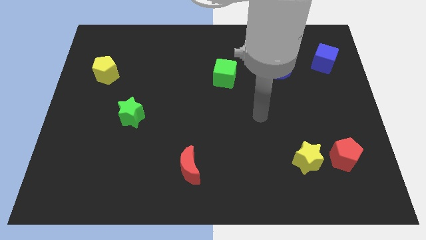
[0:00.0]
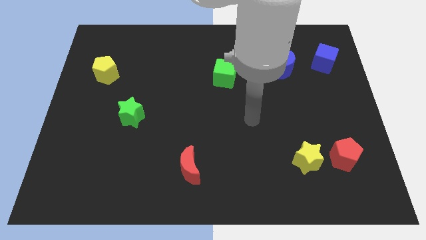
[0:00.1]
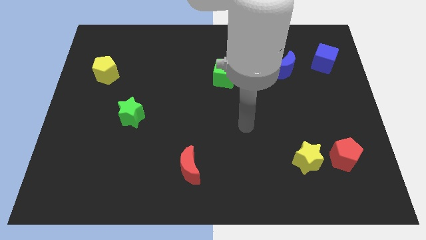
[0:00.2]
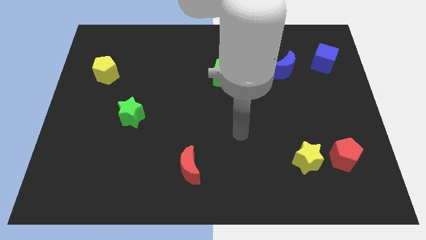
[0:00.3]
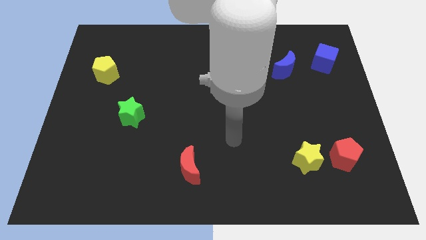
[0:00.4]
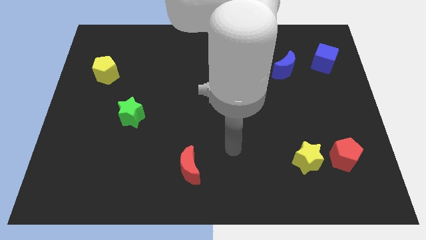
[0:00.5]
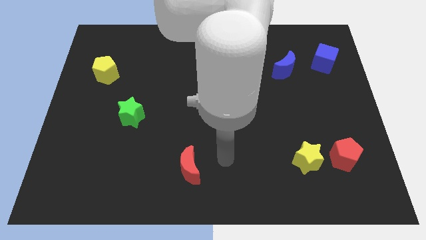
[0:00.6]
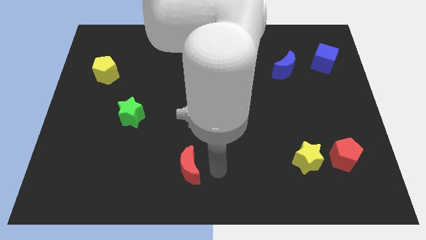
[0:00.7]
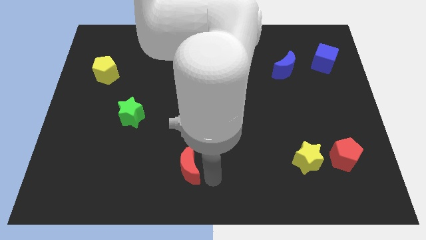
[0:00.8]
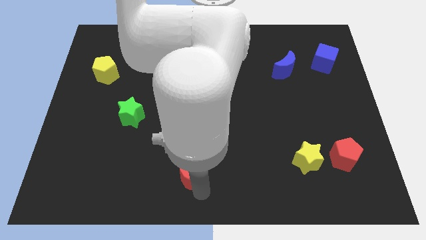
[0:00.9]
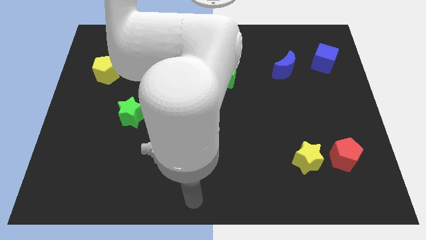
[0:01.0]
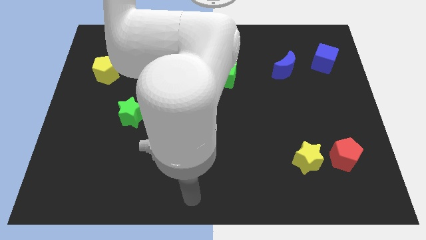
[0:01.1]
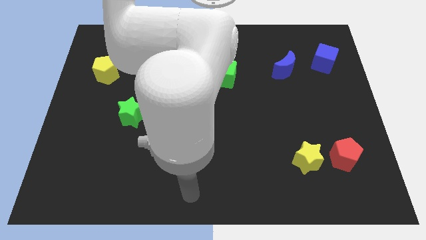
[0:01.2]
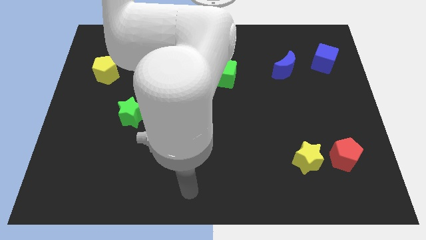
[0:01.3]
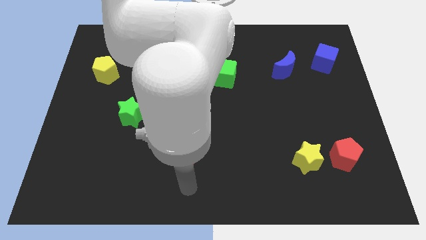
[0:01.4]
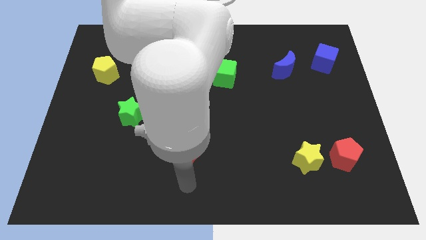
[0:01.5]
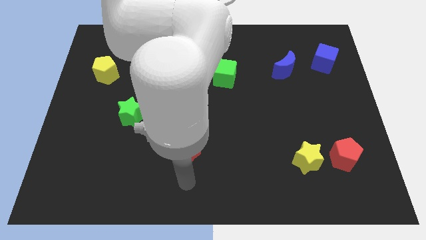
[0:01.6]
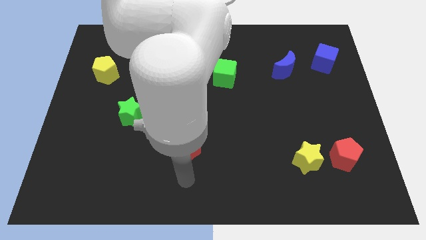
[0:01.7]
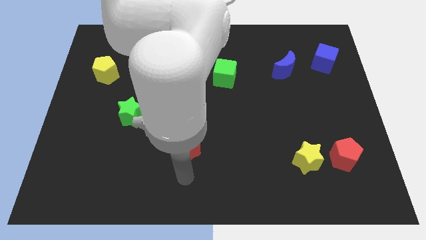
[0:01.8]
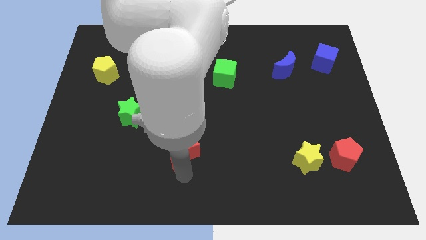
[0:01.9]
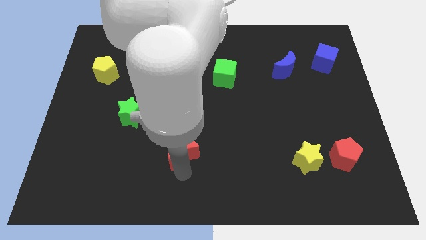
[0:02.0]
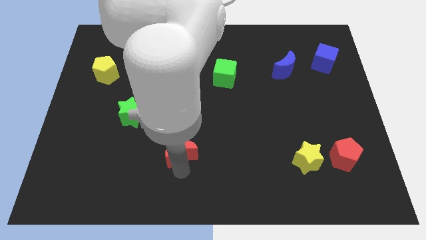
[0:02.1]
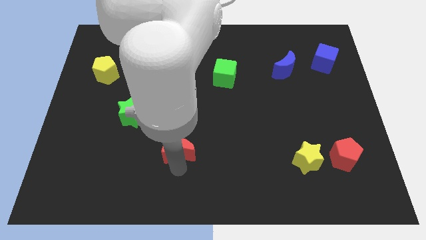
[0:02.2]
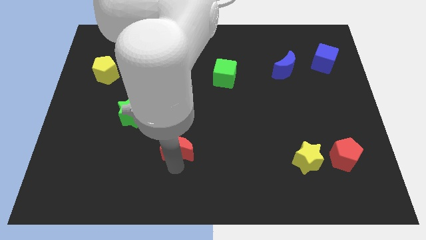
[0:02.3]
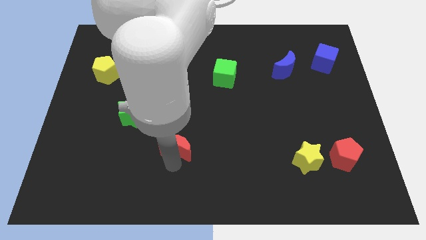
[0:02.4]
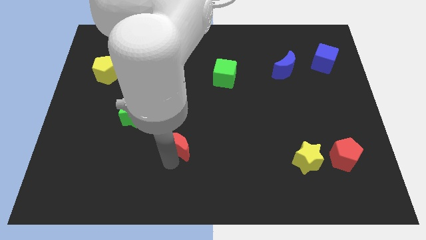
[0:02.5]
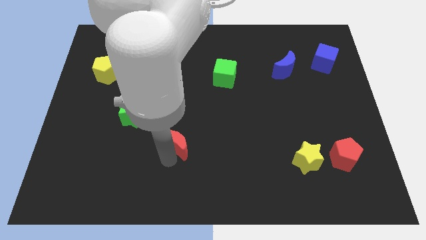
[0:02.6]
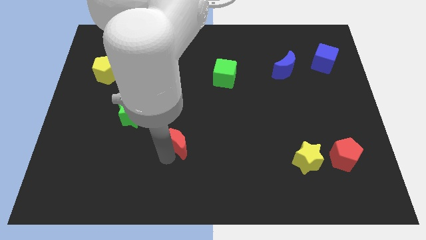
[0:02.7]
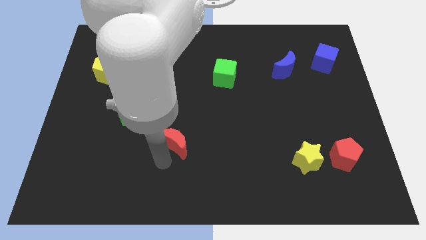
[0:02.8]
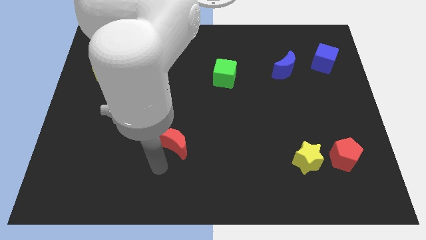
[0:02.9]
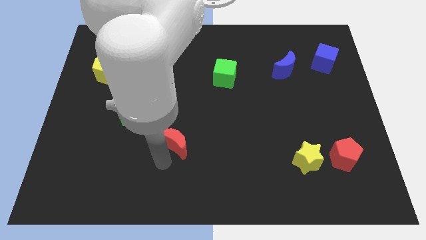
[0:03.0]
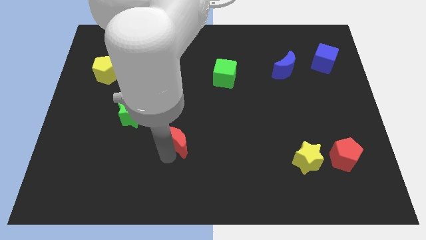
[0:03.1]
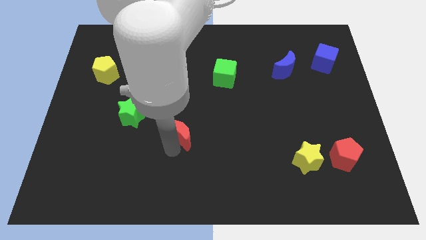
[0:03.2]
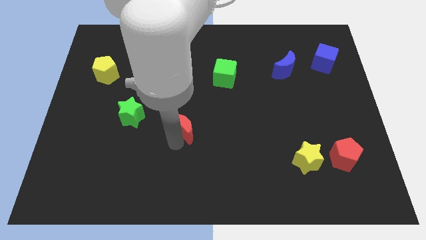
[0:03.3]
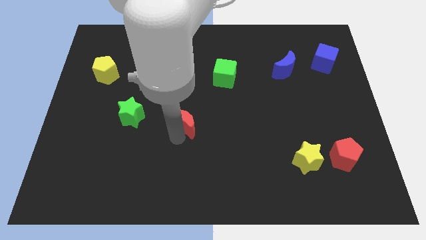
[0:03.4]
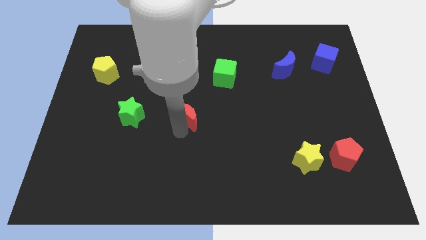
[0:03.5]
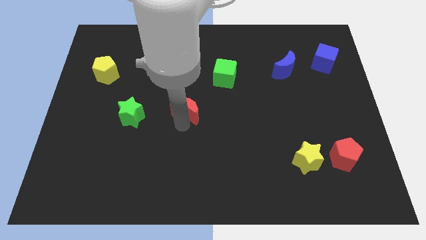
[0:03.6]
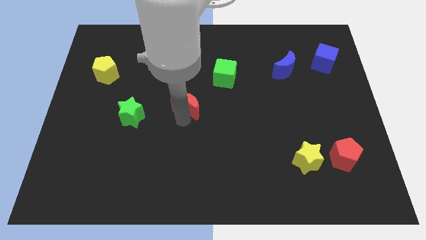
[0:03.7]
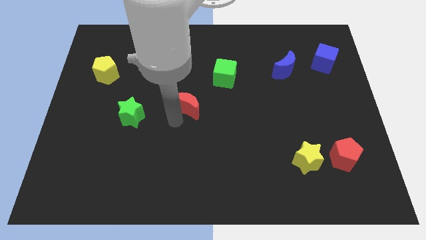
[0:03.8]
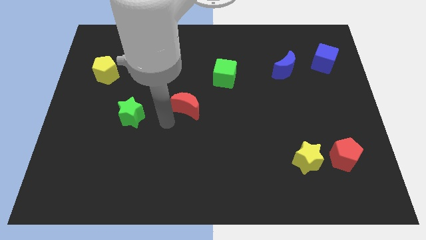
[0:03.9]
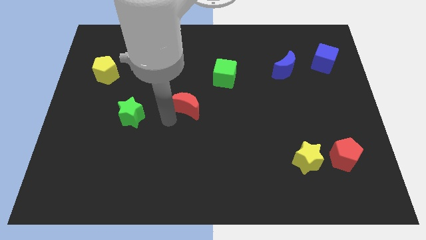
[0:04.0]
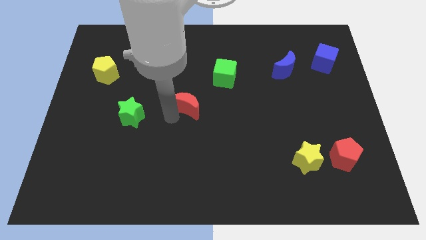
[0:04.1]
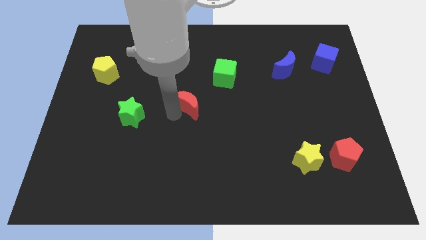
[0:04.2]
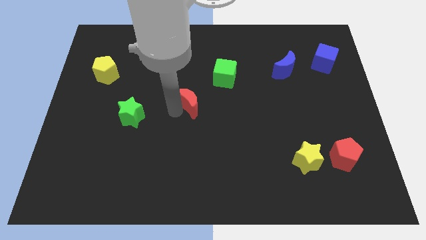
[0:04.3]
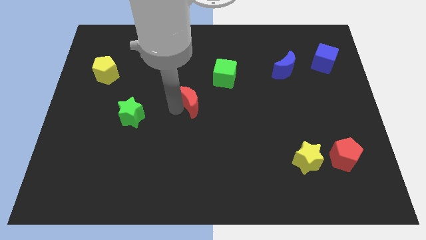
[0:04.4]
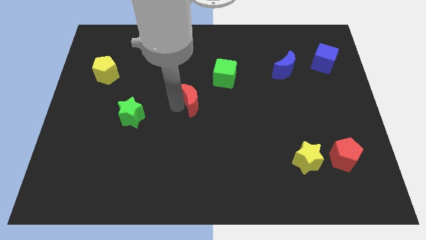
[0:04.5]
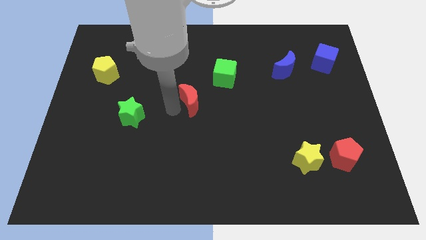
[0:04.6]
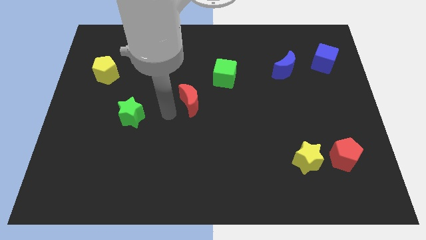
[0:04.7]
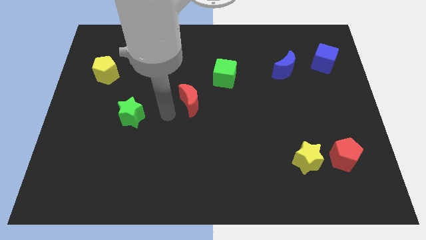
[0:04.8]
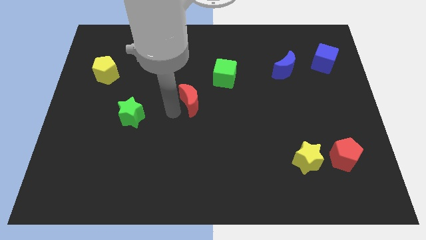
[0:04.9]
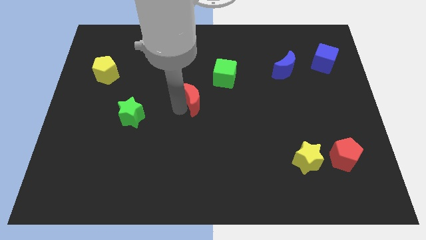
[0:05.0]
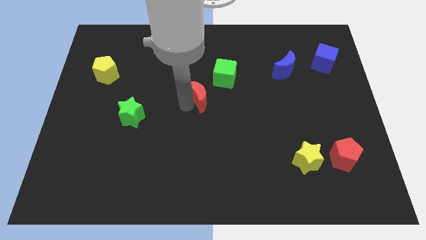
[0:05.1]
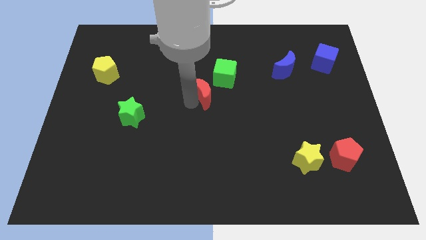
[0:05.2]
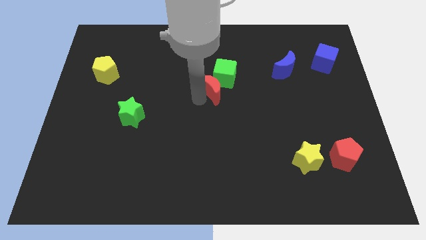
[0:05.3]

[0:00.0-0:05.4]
move the red moon close to the green cube

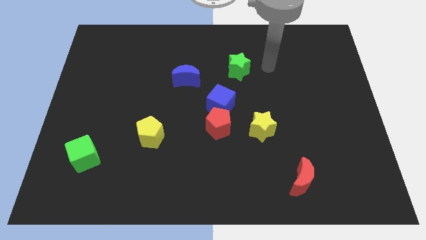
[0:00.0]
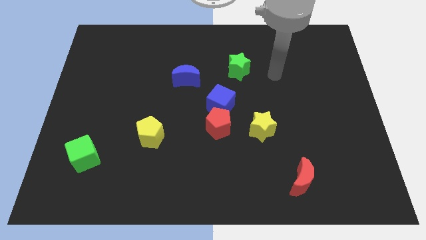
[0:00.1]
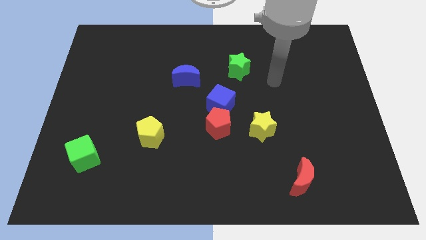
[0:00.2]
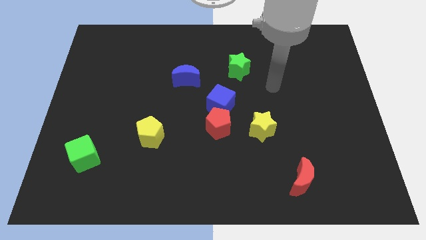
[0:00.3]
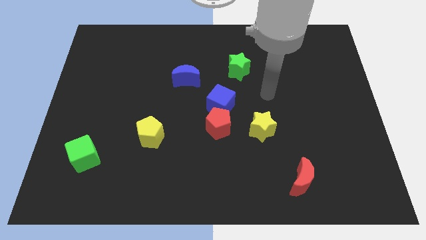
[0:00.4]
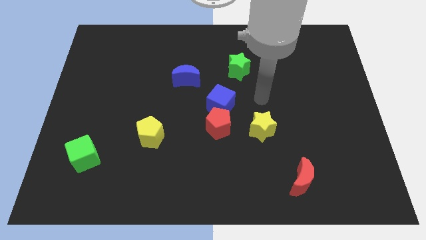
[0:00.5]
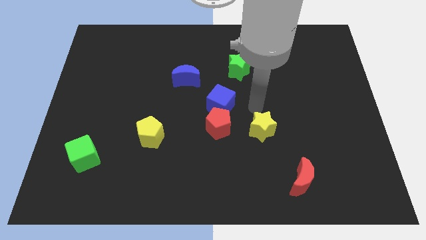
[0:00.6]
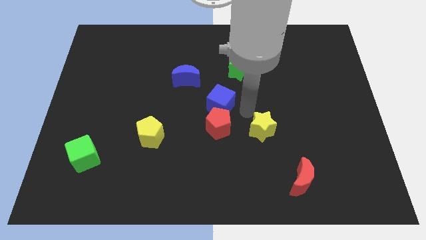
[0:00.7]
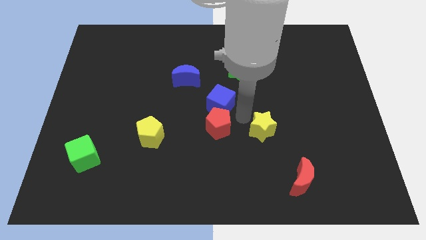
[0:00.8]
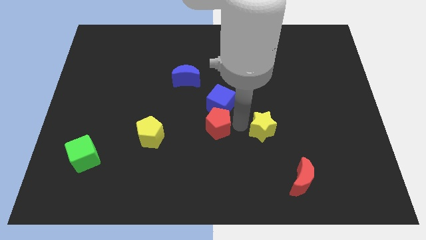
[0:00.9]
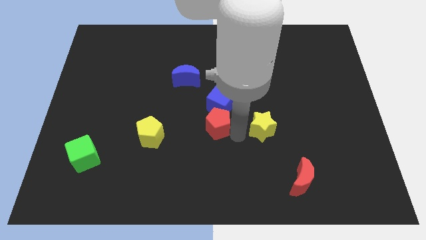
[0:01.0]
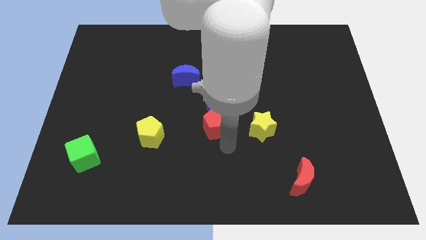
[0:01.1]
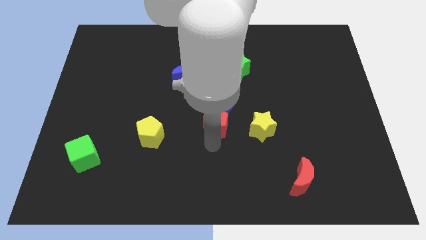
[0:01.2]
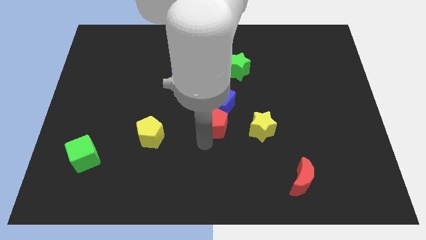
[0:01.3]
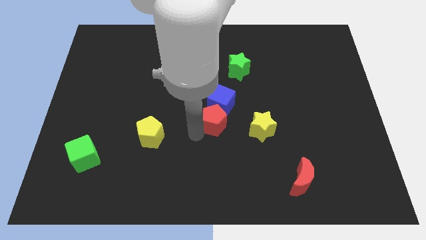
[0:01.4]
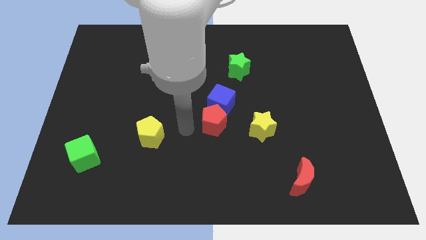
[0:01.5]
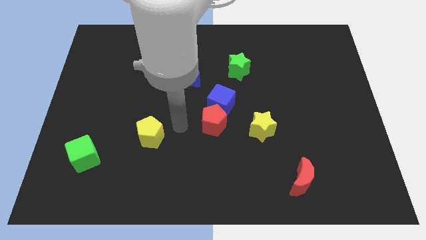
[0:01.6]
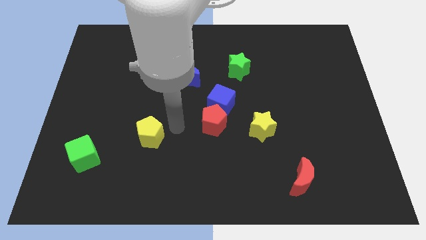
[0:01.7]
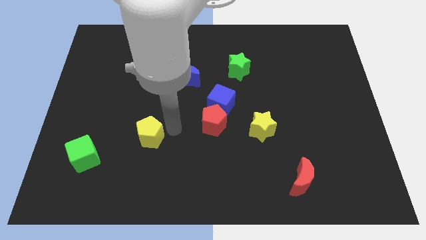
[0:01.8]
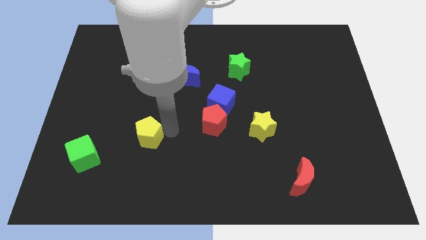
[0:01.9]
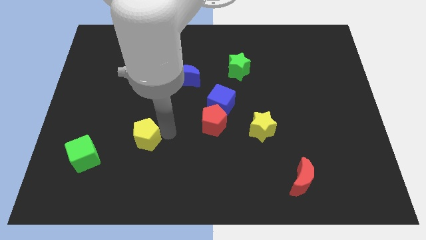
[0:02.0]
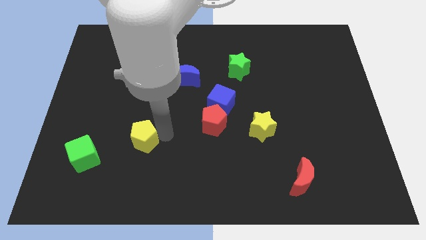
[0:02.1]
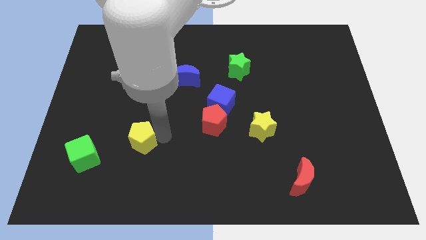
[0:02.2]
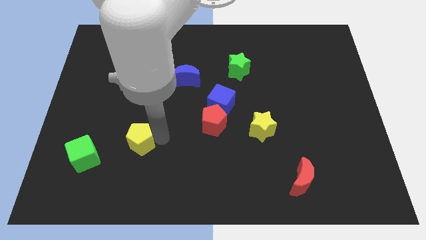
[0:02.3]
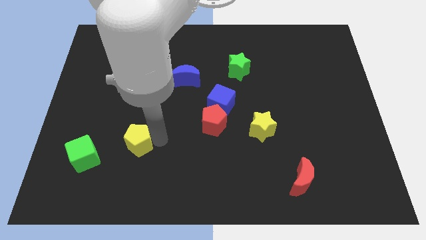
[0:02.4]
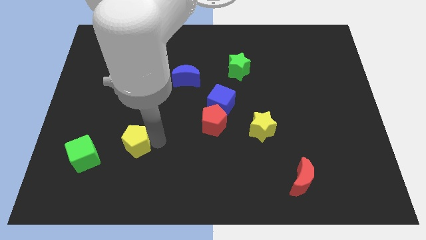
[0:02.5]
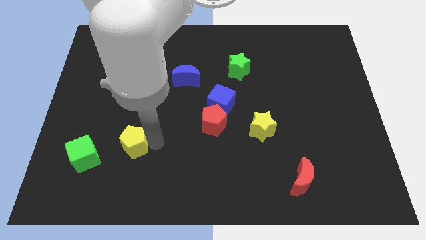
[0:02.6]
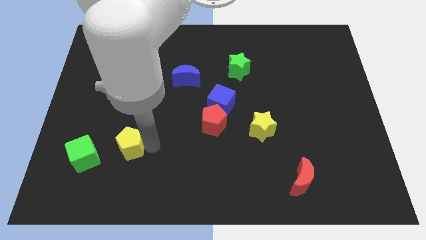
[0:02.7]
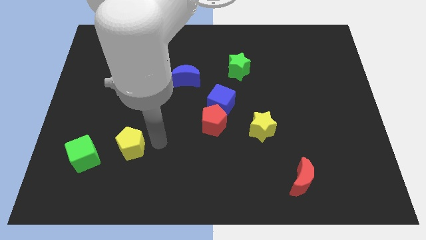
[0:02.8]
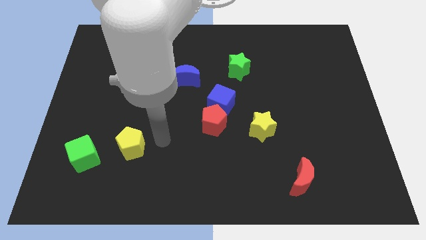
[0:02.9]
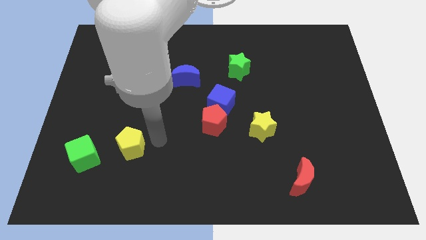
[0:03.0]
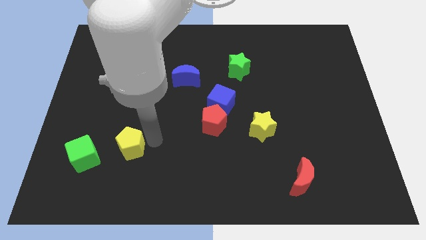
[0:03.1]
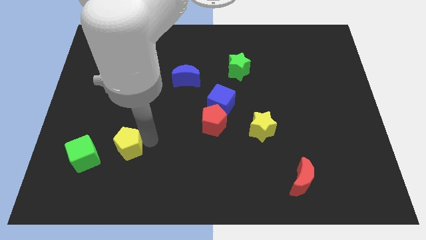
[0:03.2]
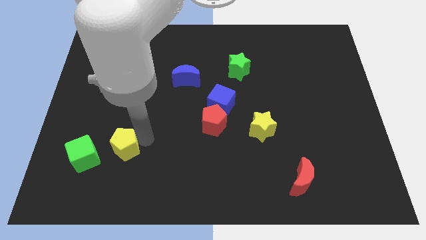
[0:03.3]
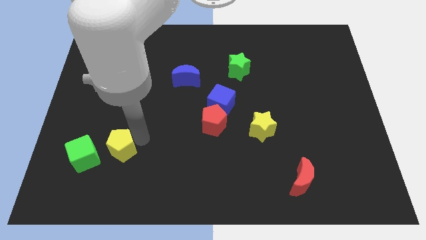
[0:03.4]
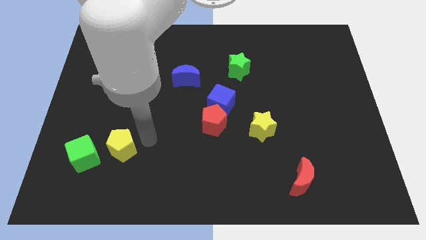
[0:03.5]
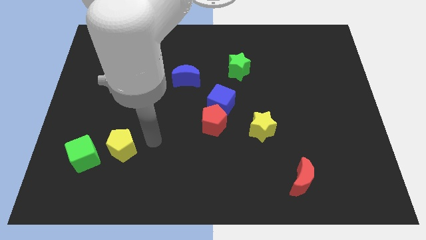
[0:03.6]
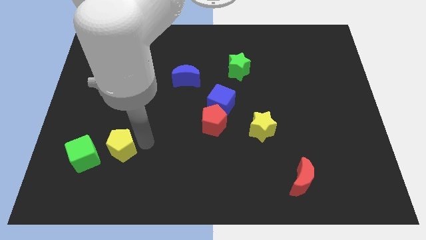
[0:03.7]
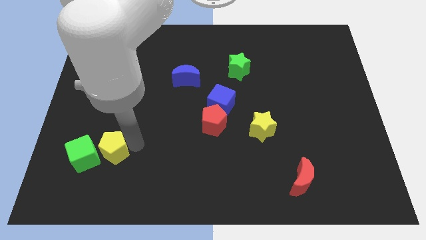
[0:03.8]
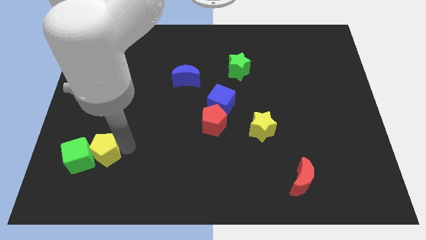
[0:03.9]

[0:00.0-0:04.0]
put the yellow pentagon next to the green cube
